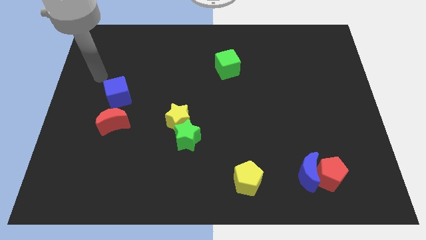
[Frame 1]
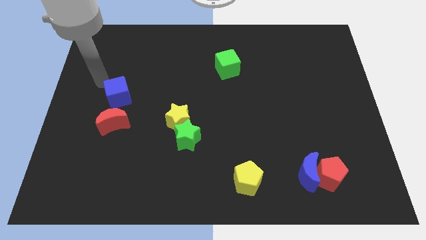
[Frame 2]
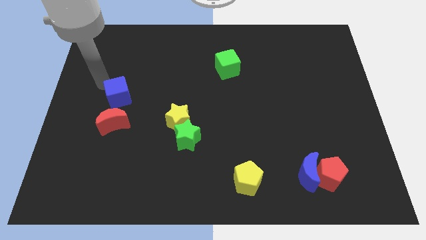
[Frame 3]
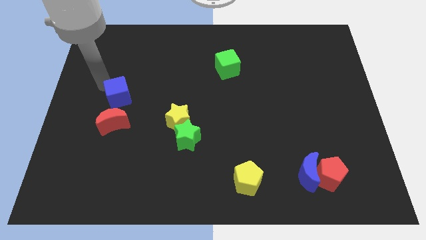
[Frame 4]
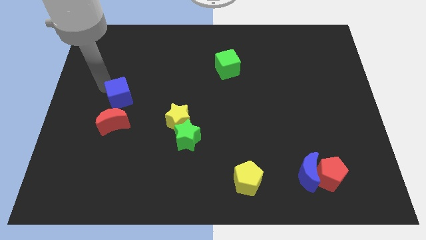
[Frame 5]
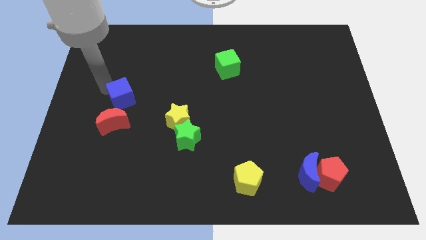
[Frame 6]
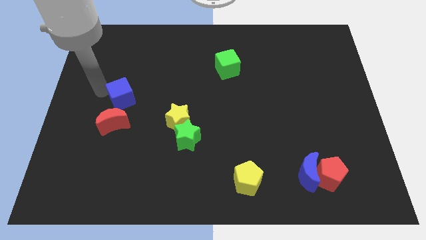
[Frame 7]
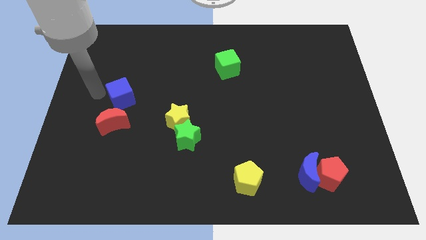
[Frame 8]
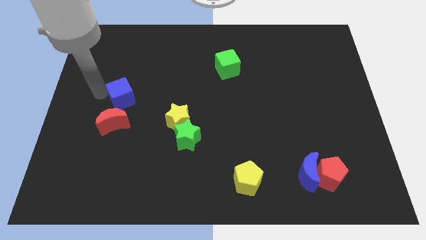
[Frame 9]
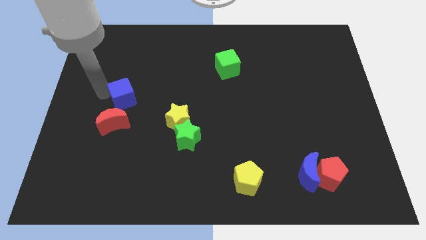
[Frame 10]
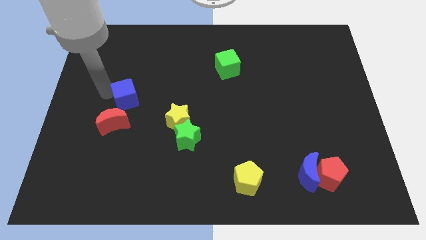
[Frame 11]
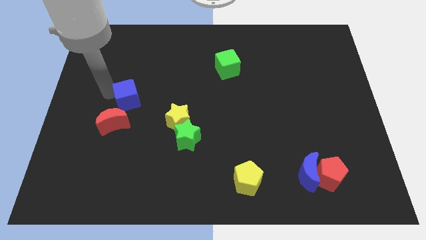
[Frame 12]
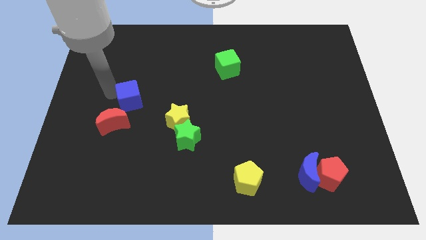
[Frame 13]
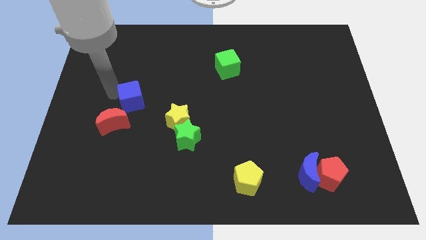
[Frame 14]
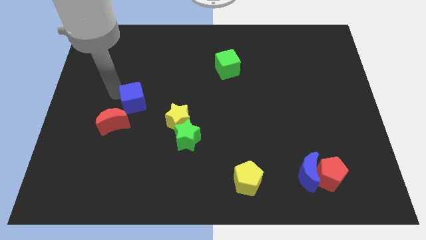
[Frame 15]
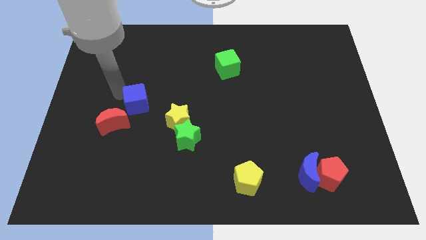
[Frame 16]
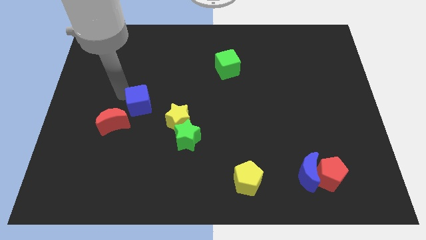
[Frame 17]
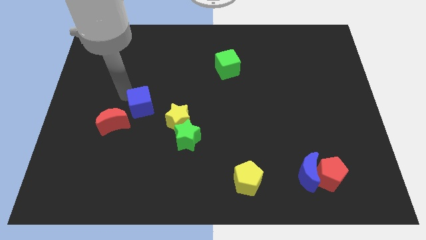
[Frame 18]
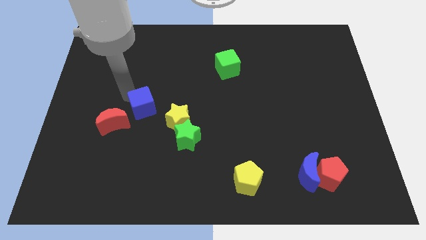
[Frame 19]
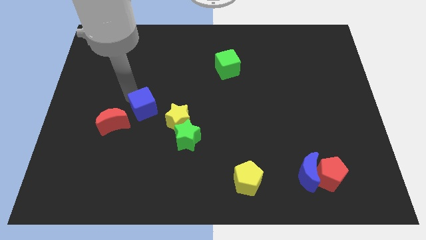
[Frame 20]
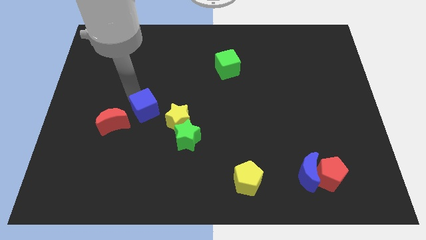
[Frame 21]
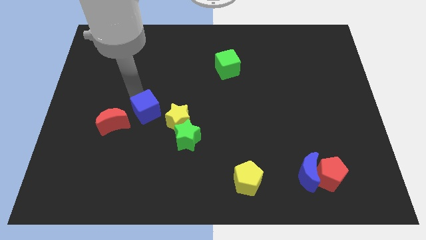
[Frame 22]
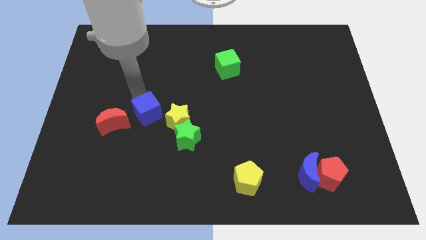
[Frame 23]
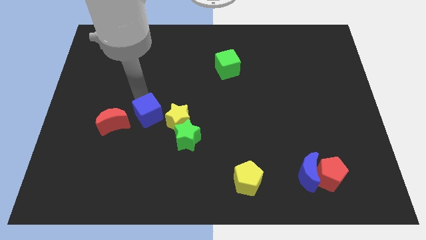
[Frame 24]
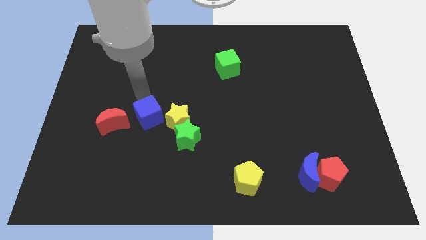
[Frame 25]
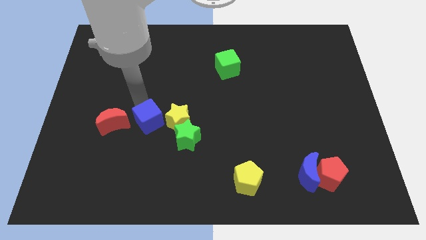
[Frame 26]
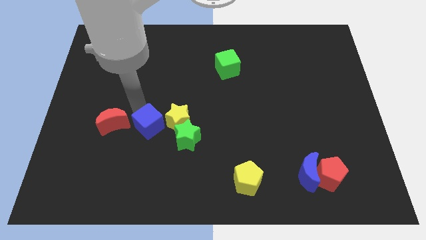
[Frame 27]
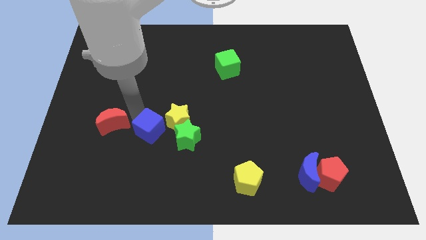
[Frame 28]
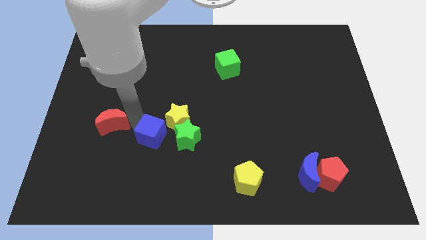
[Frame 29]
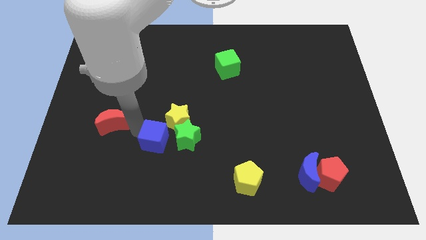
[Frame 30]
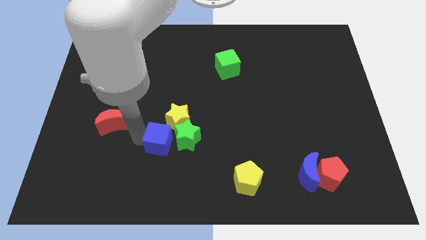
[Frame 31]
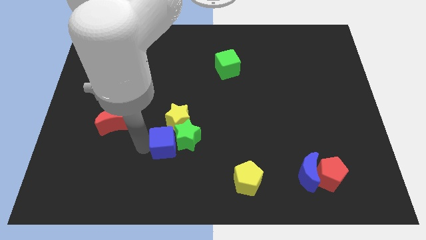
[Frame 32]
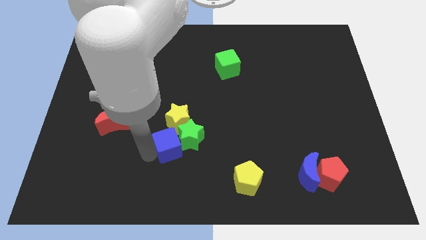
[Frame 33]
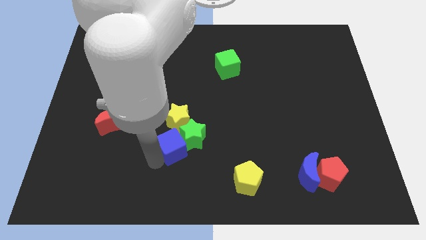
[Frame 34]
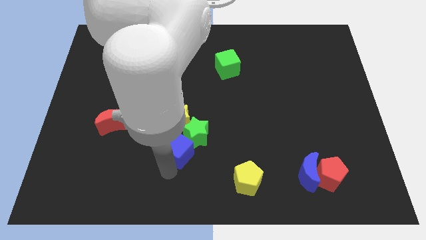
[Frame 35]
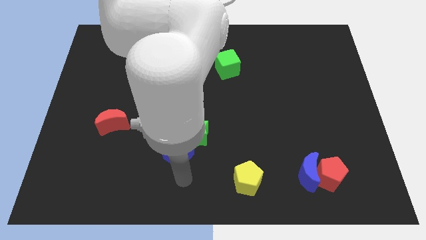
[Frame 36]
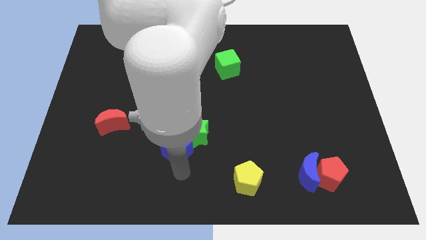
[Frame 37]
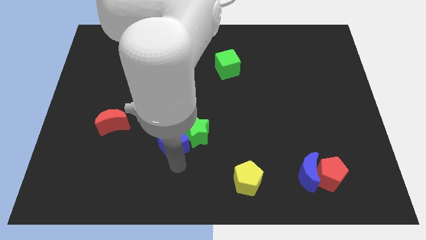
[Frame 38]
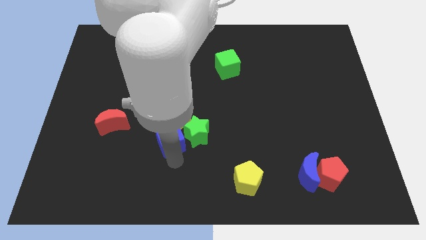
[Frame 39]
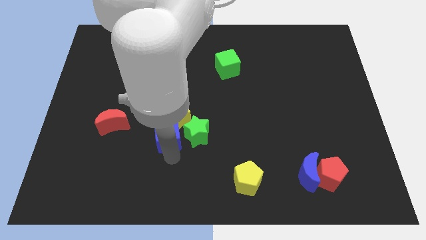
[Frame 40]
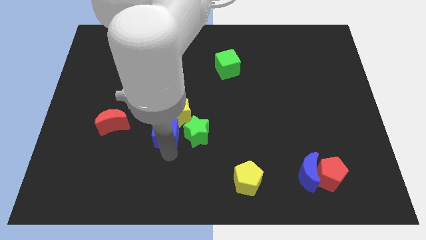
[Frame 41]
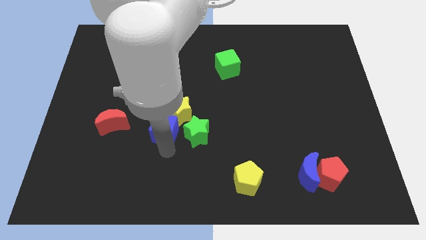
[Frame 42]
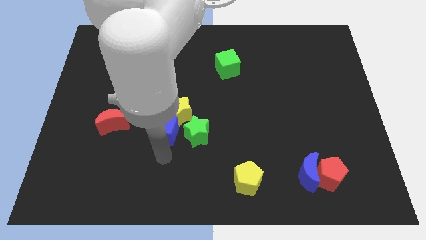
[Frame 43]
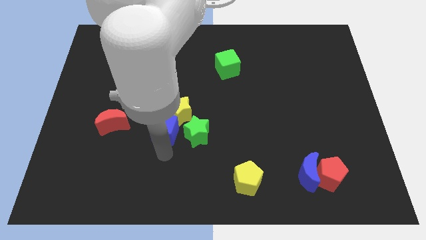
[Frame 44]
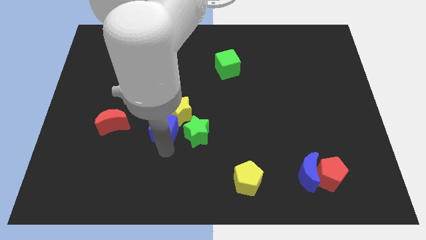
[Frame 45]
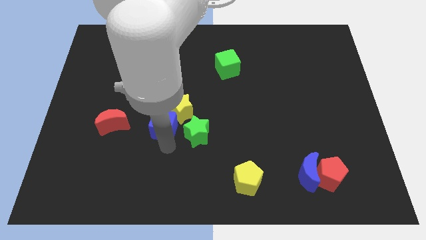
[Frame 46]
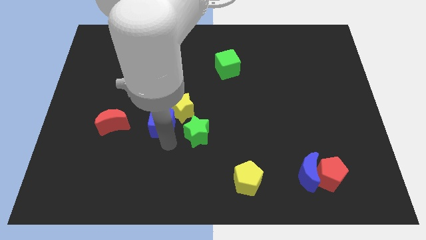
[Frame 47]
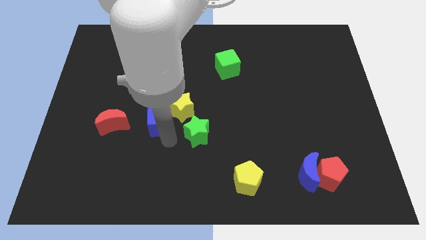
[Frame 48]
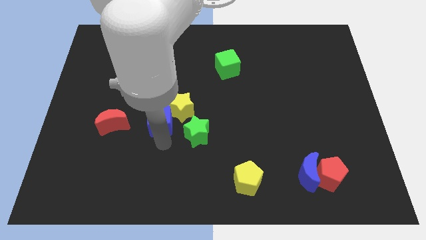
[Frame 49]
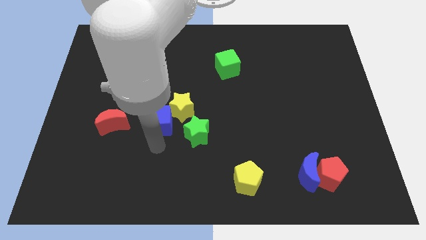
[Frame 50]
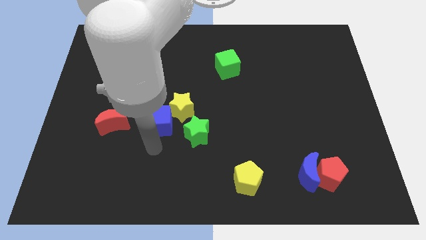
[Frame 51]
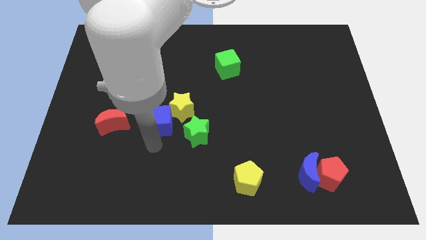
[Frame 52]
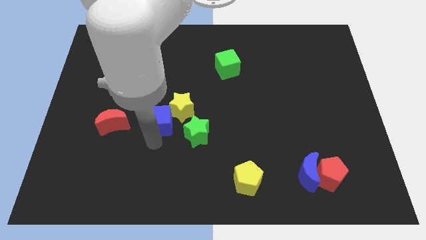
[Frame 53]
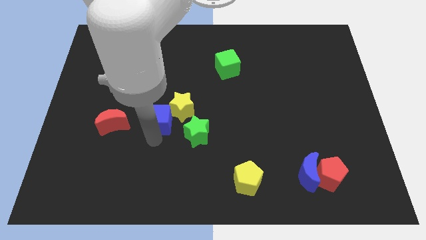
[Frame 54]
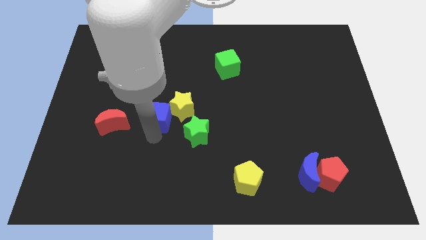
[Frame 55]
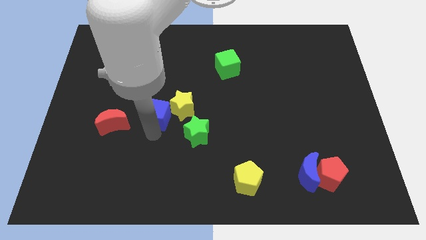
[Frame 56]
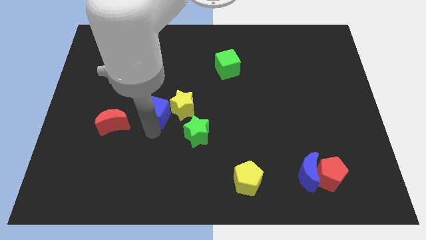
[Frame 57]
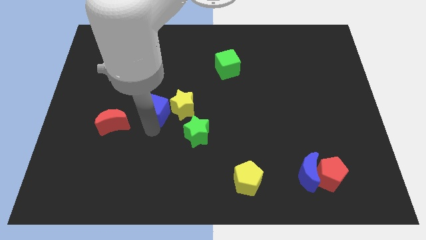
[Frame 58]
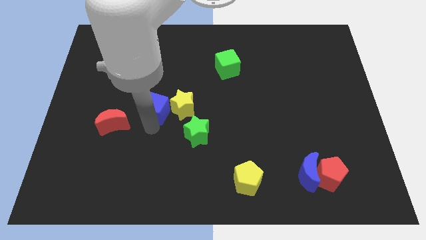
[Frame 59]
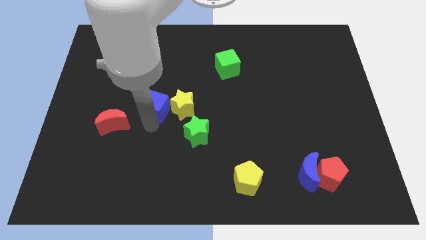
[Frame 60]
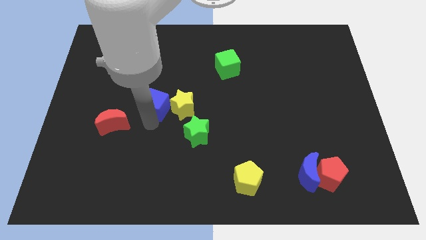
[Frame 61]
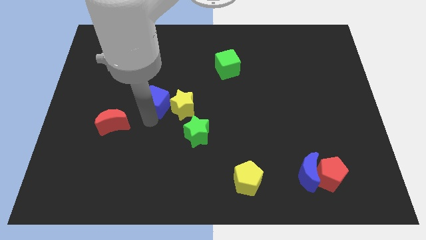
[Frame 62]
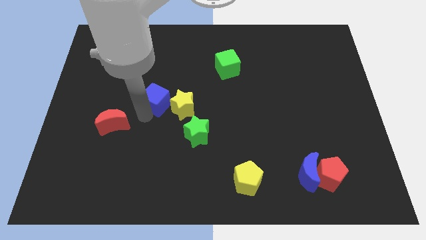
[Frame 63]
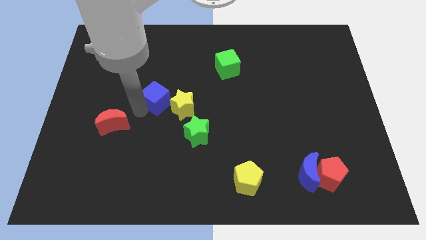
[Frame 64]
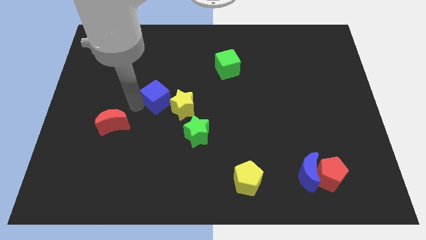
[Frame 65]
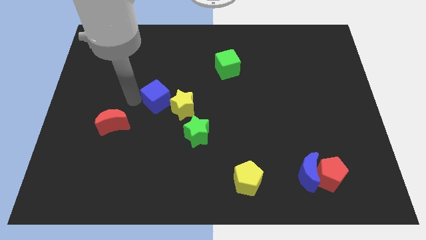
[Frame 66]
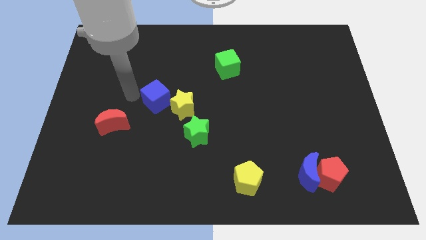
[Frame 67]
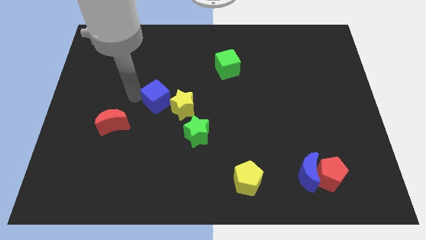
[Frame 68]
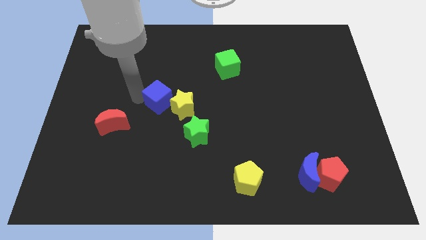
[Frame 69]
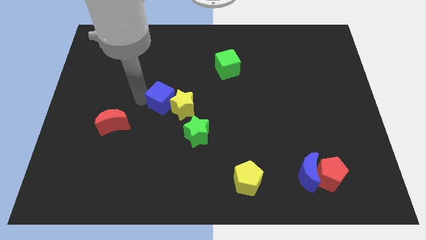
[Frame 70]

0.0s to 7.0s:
slide the blue cube to the center
